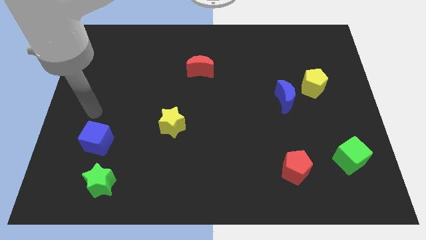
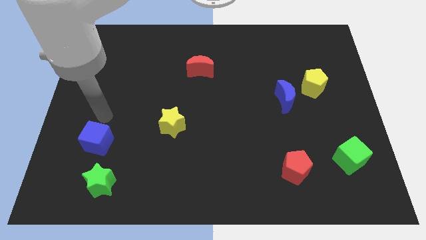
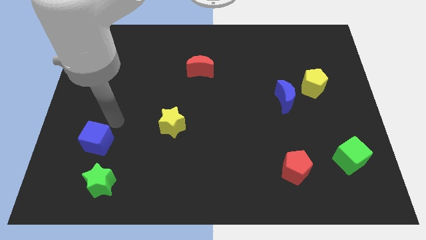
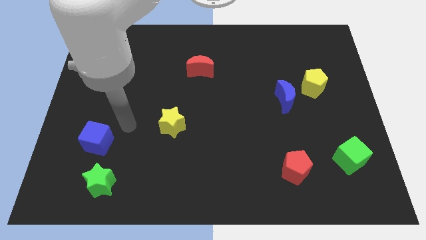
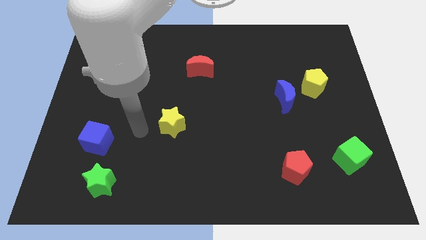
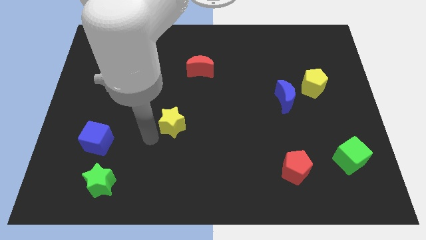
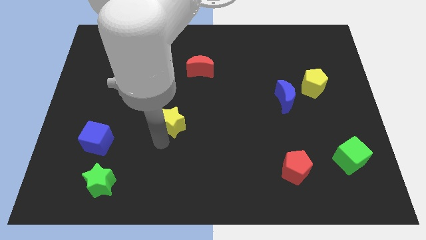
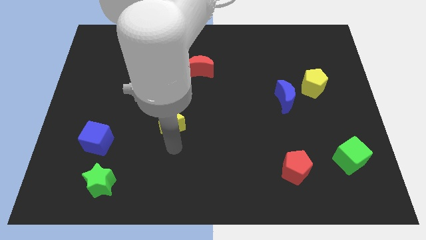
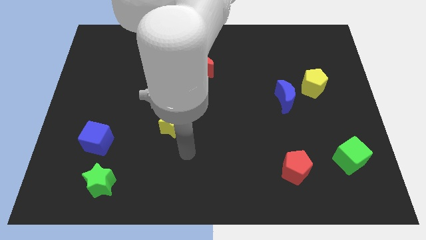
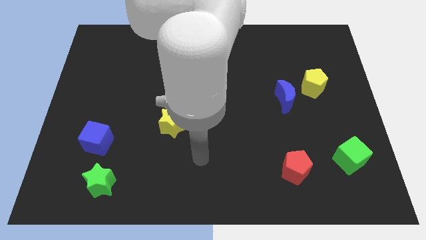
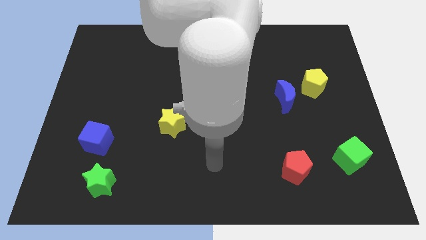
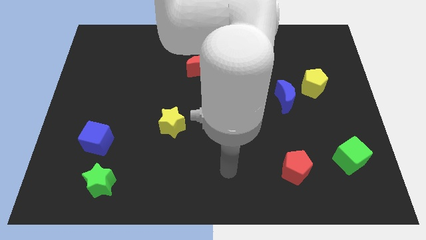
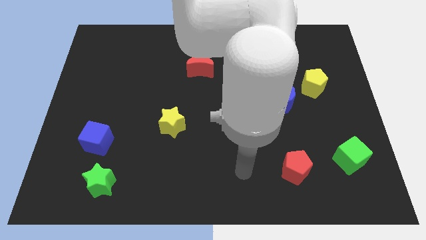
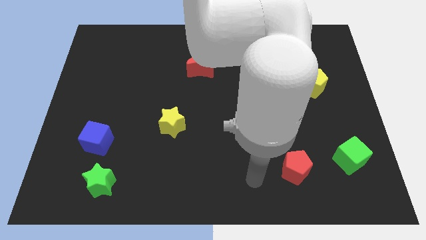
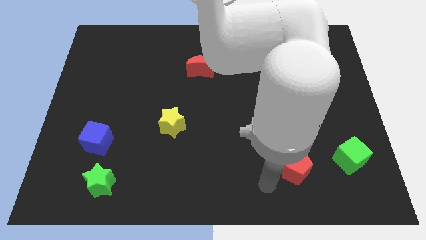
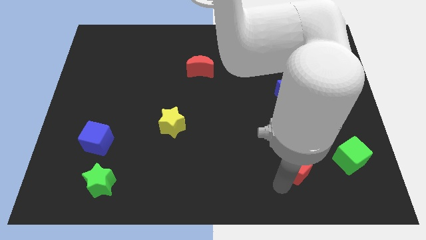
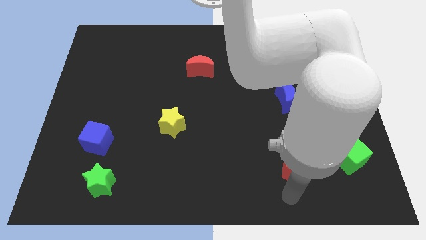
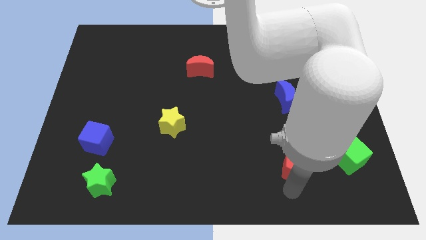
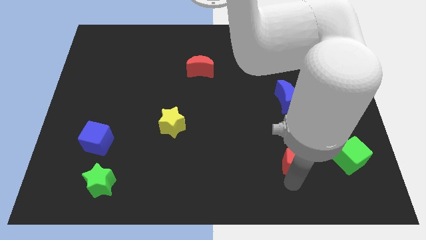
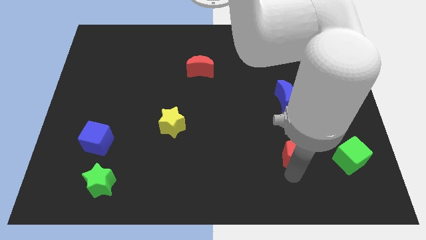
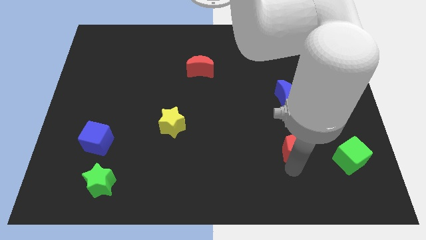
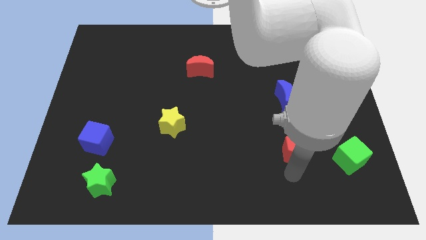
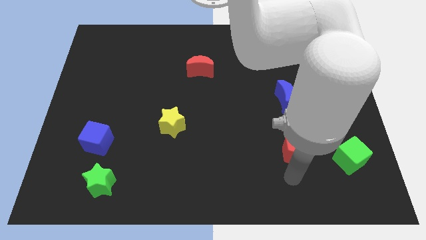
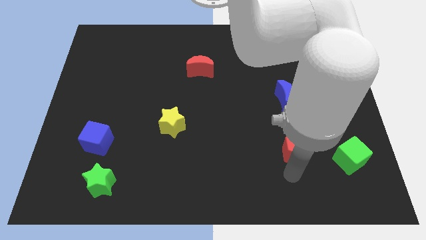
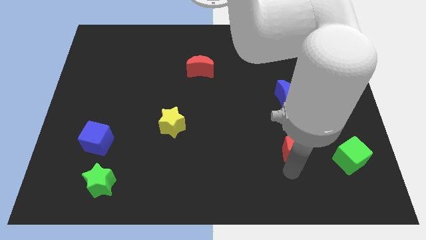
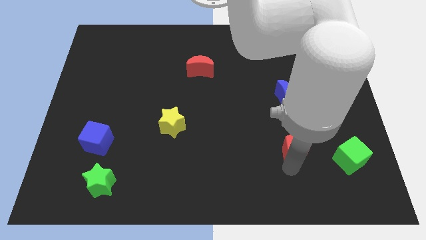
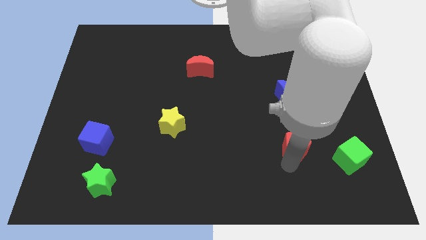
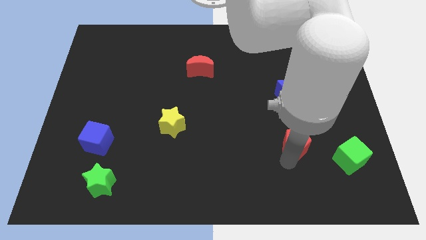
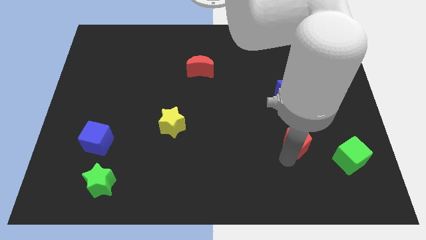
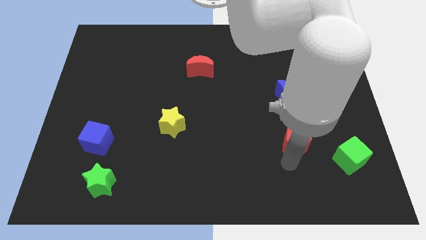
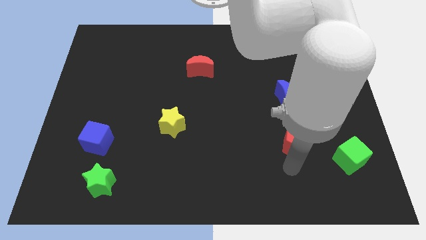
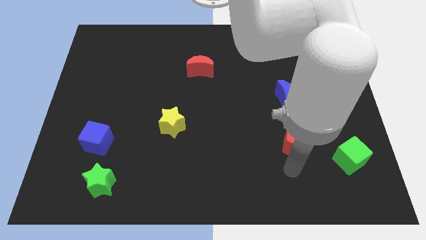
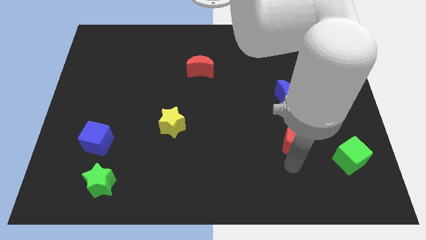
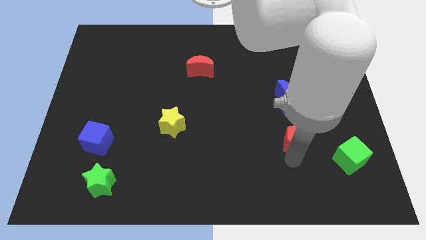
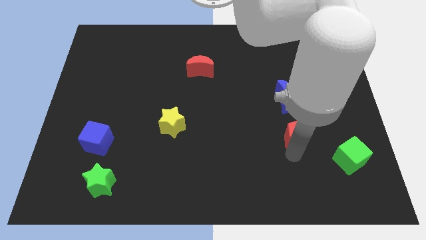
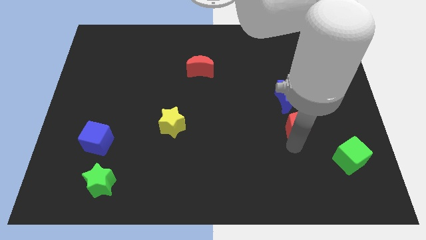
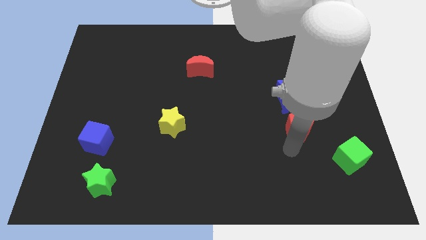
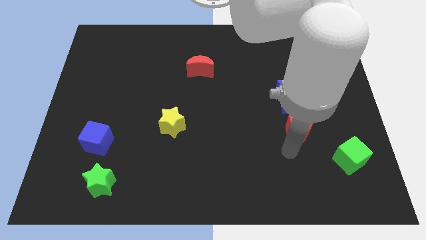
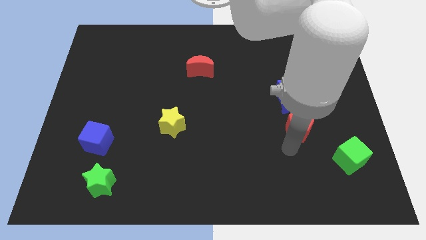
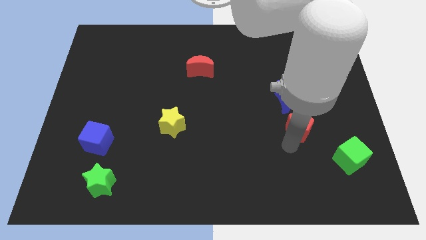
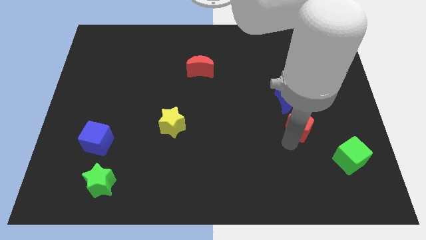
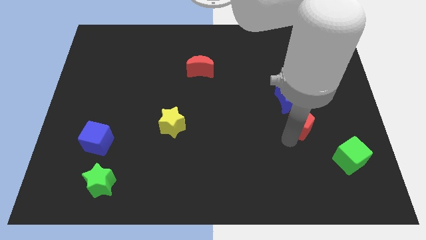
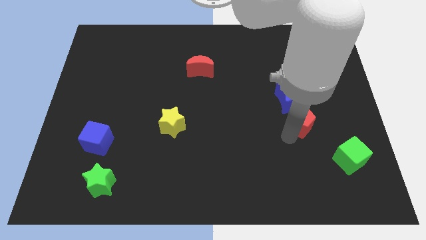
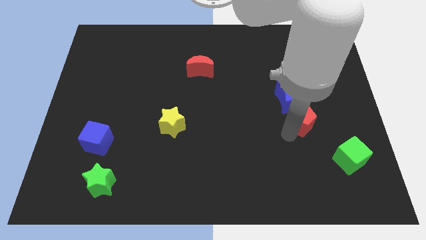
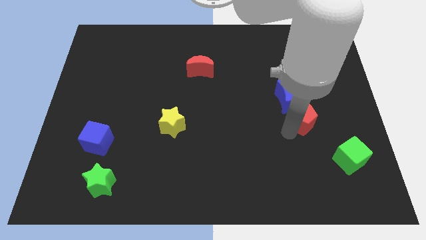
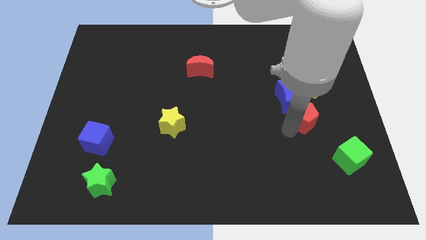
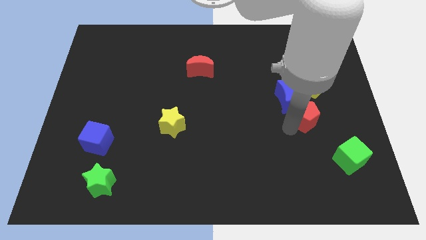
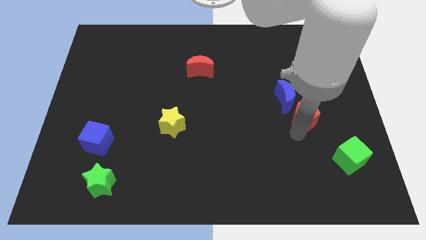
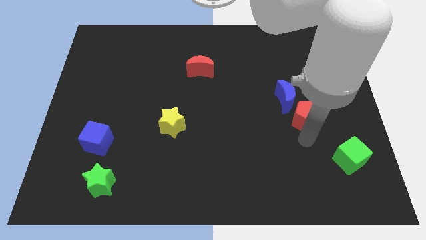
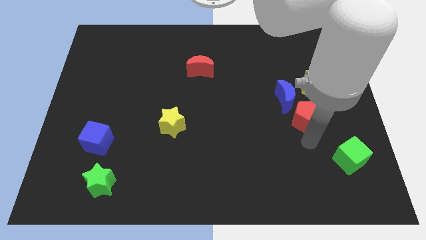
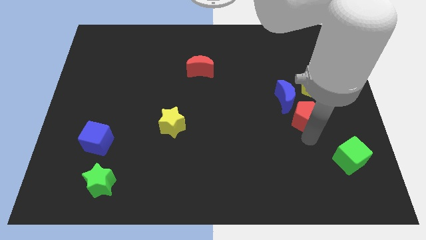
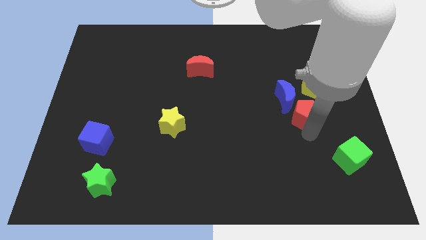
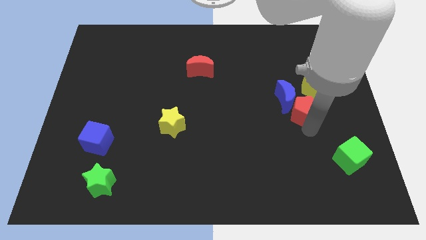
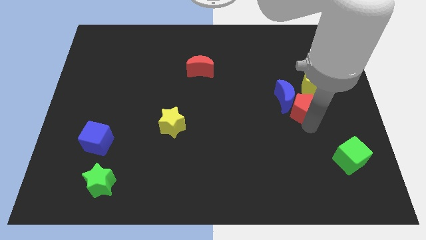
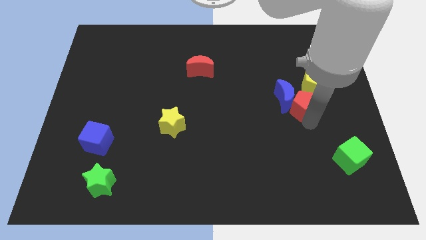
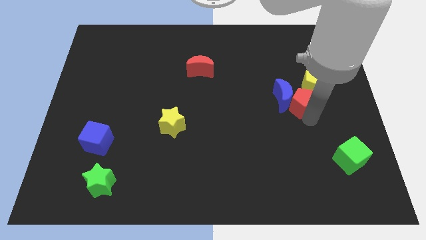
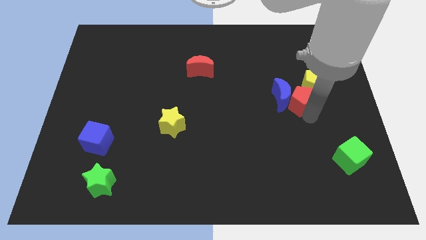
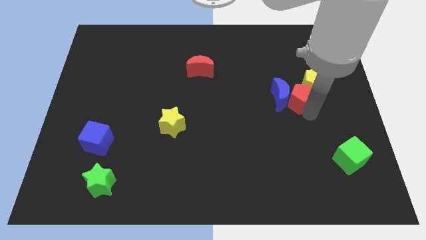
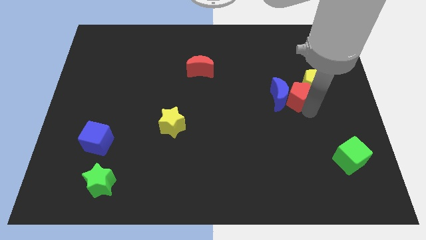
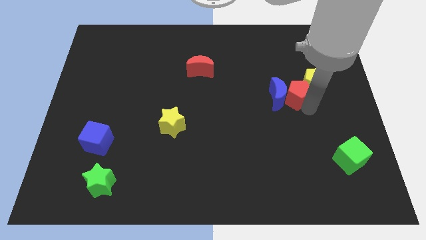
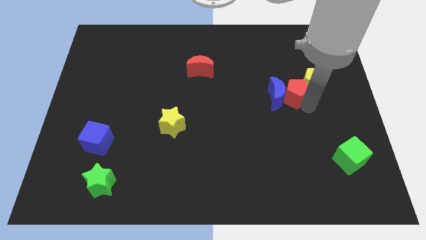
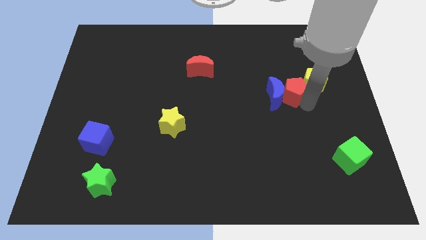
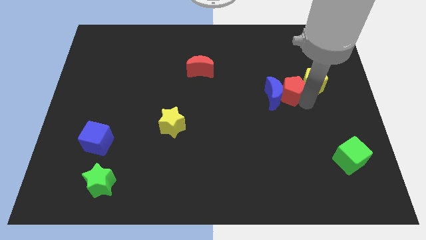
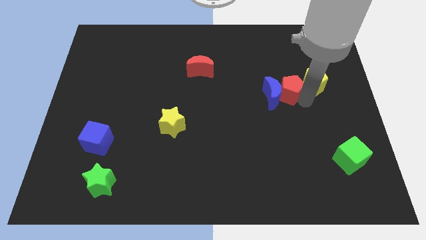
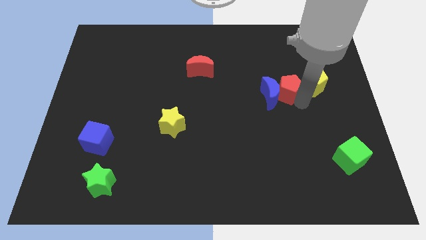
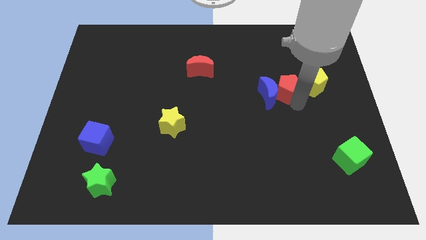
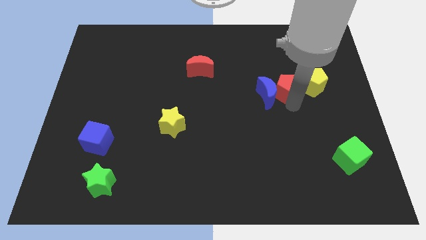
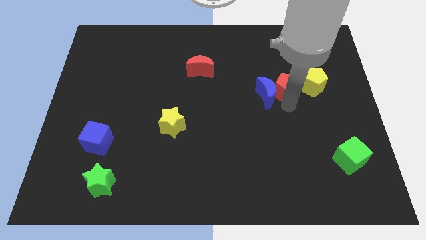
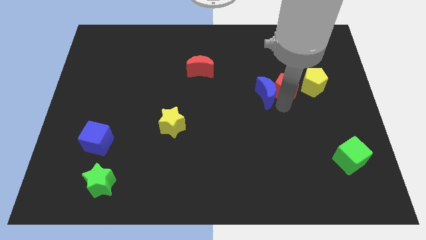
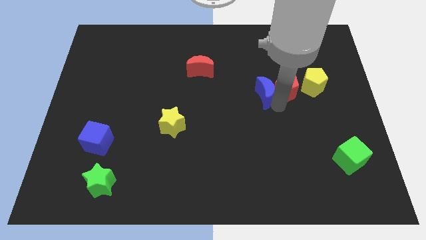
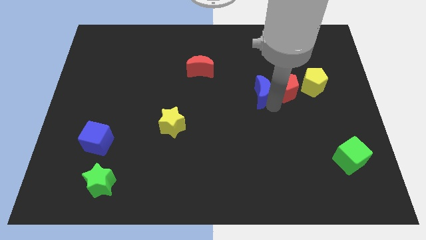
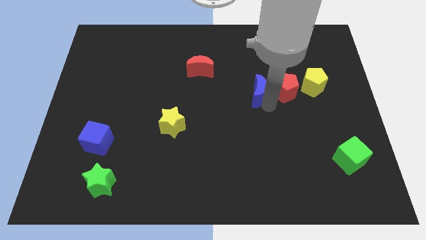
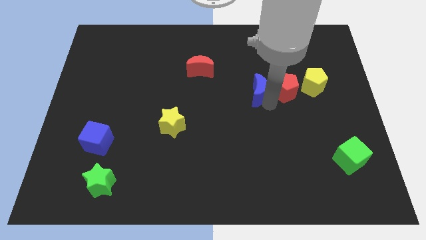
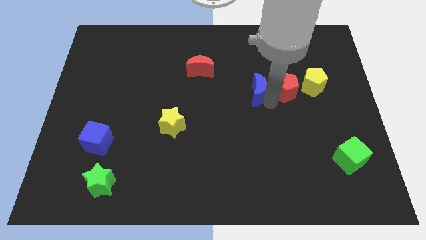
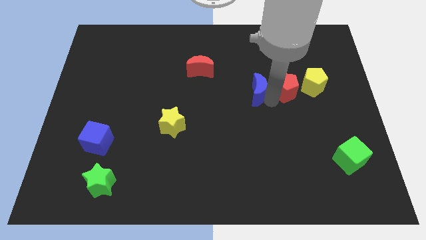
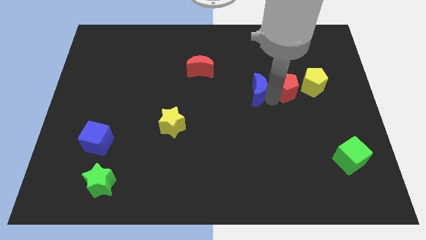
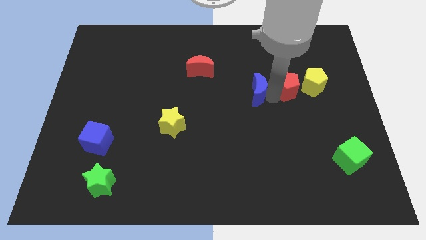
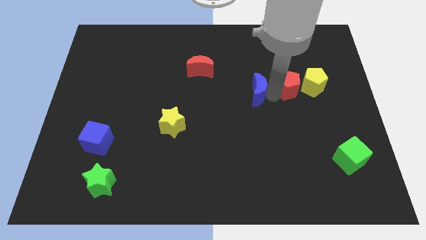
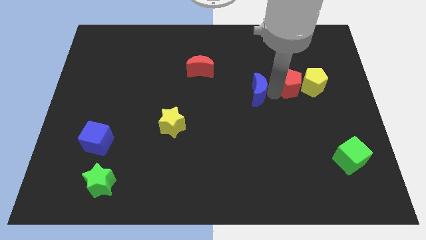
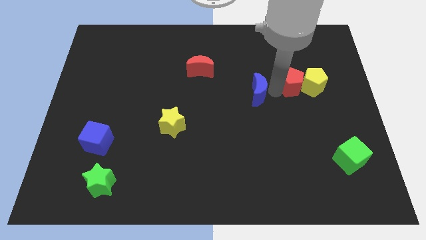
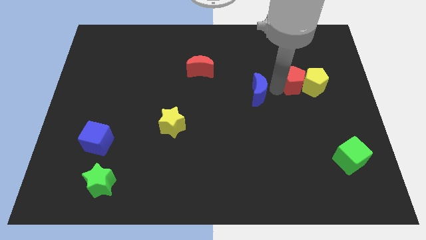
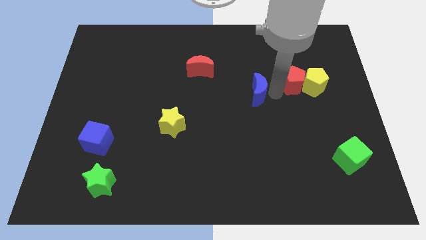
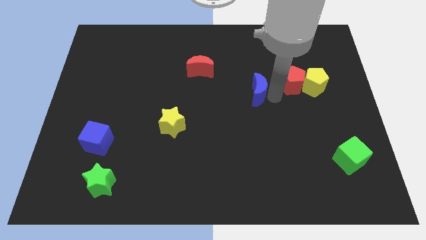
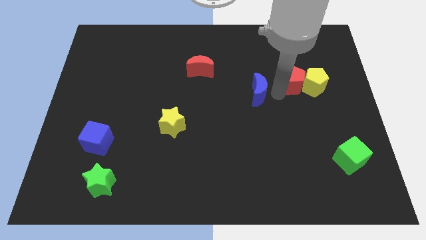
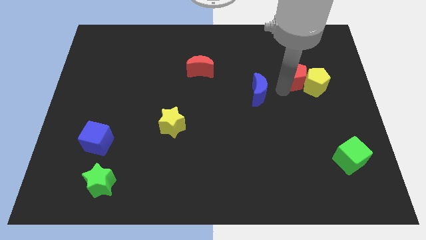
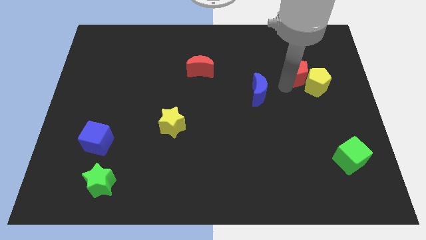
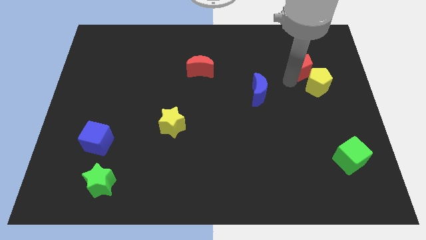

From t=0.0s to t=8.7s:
push the red pentagon above the yellow pentagon
